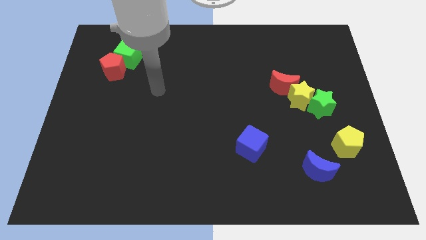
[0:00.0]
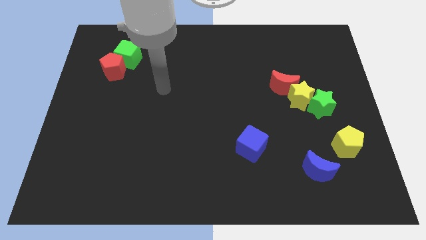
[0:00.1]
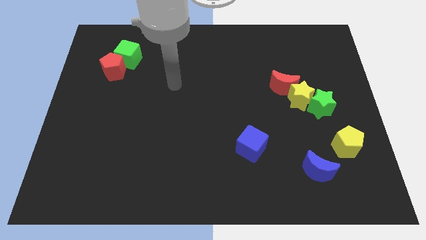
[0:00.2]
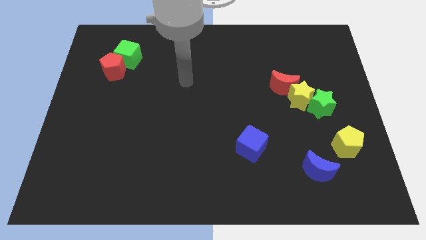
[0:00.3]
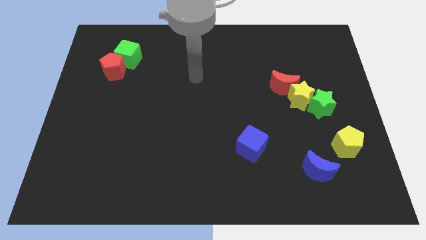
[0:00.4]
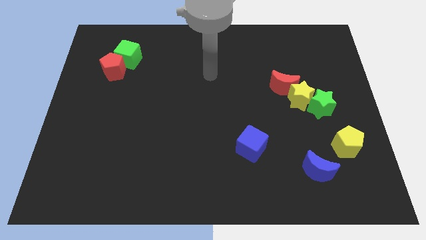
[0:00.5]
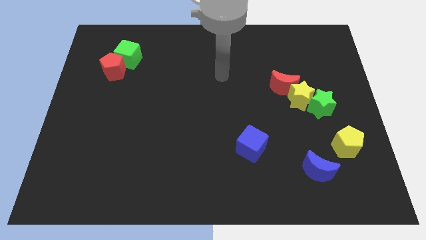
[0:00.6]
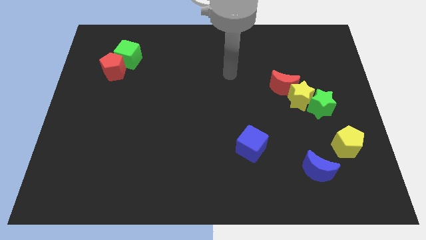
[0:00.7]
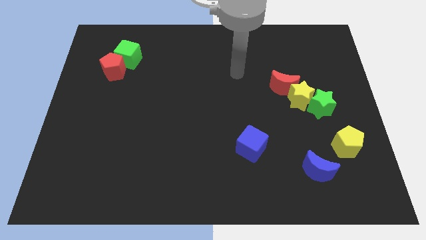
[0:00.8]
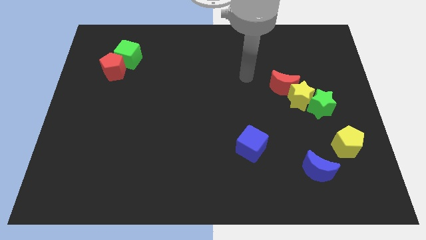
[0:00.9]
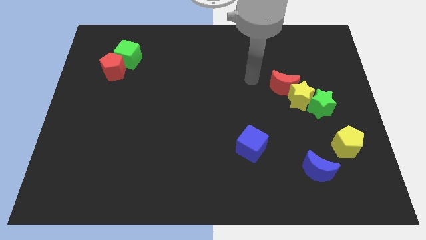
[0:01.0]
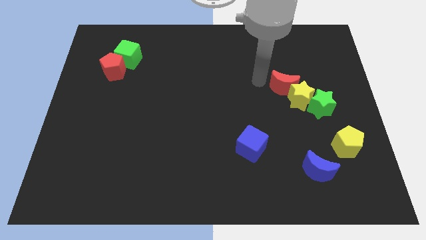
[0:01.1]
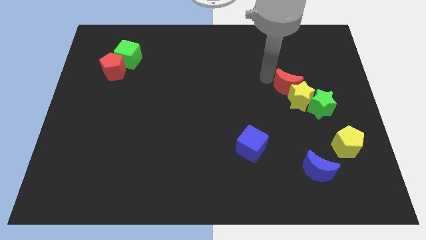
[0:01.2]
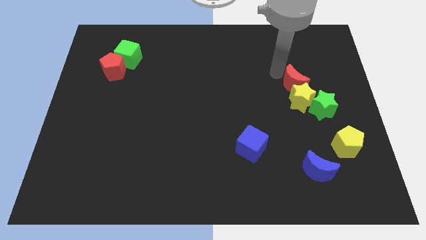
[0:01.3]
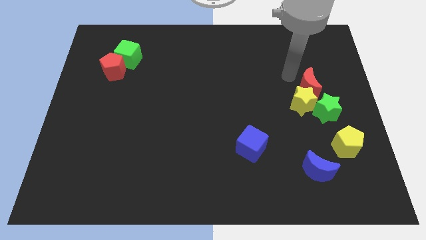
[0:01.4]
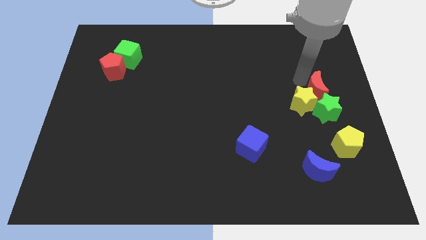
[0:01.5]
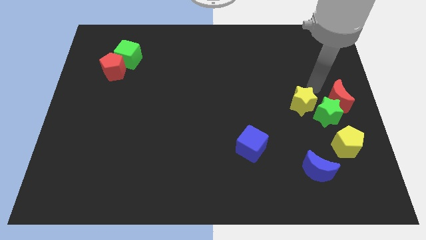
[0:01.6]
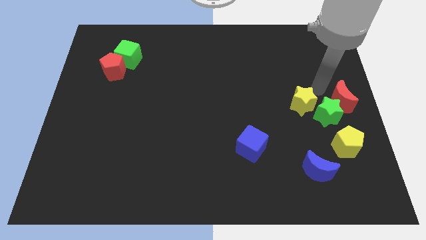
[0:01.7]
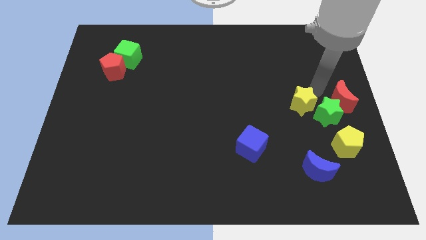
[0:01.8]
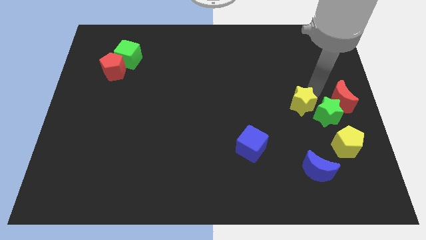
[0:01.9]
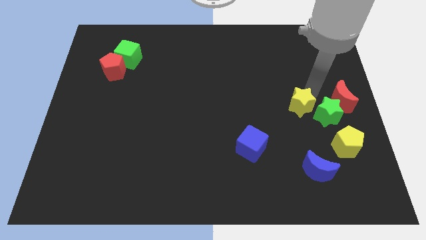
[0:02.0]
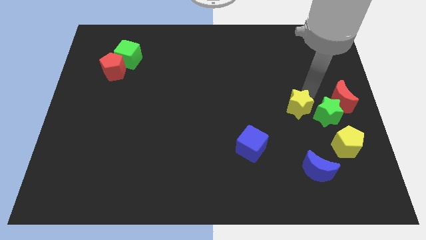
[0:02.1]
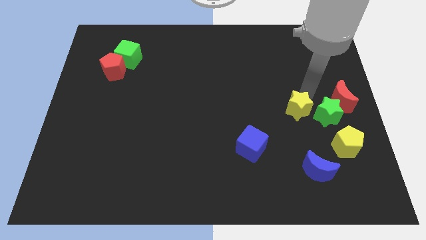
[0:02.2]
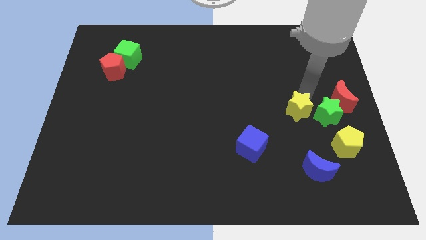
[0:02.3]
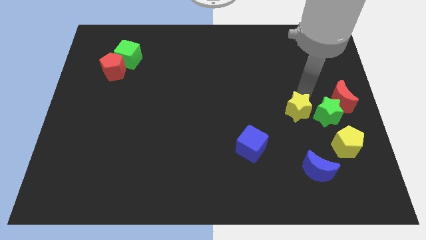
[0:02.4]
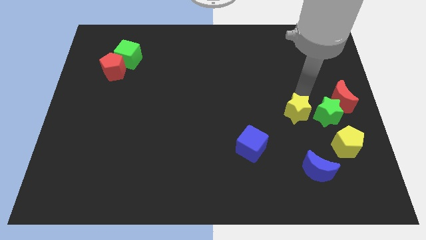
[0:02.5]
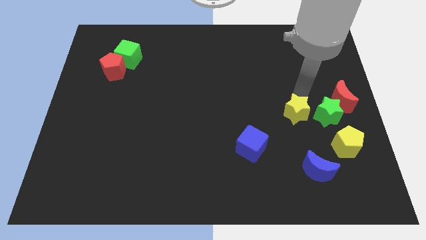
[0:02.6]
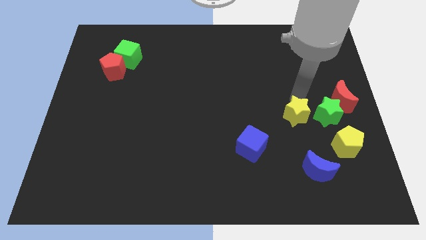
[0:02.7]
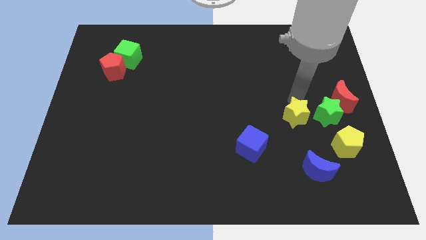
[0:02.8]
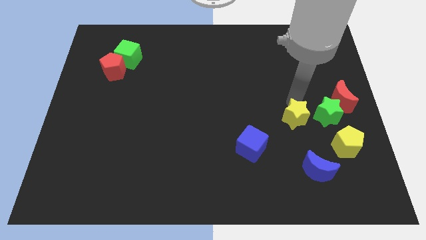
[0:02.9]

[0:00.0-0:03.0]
pull the yellow star apart from the red moon and green star

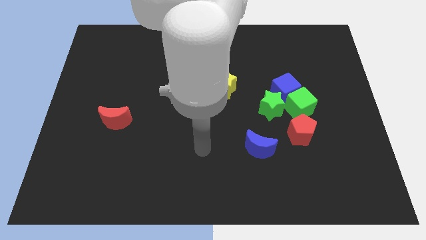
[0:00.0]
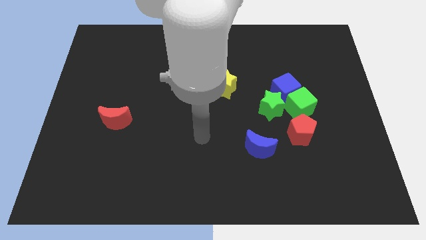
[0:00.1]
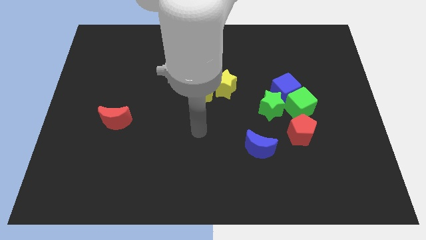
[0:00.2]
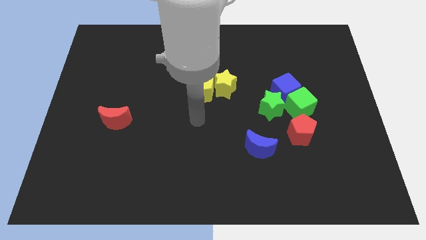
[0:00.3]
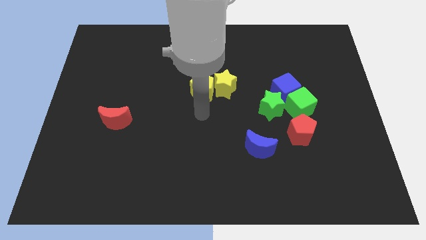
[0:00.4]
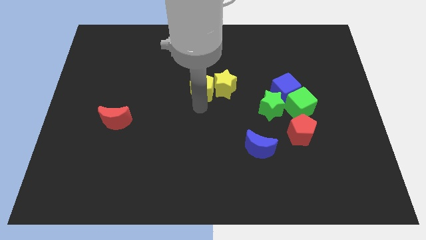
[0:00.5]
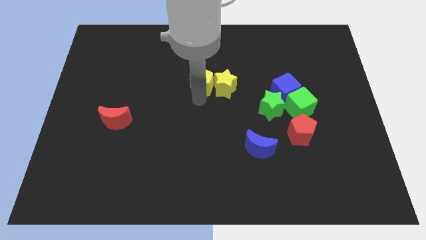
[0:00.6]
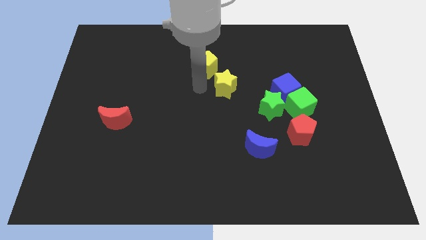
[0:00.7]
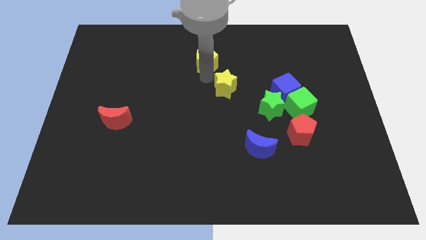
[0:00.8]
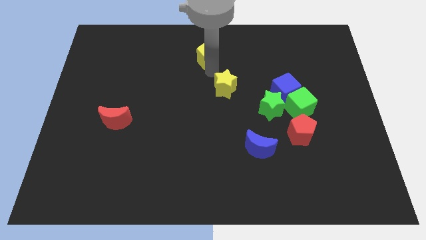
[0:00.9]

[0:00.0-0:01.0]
pull the yellow star apart from the yellow pentagon

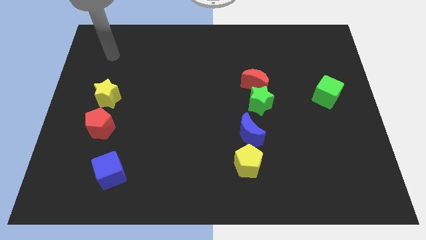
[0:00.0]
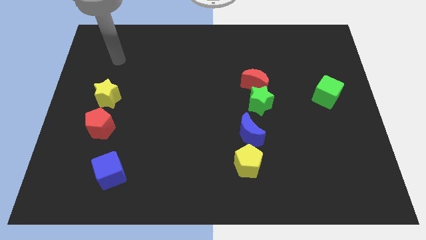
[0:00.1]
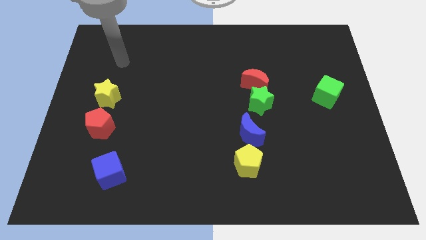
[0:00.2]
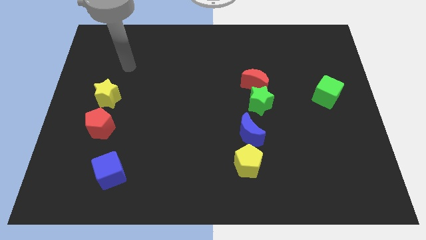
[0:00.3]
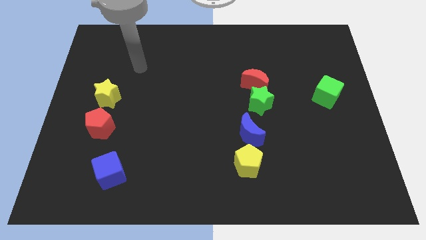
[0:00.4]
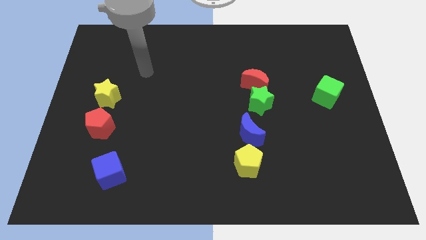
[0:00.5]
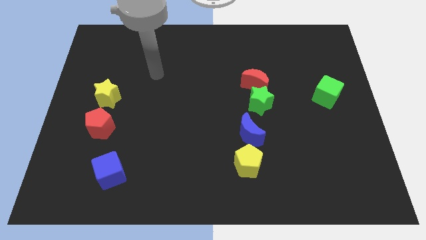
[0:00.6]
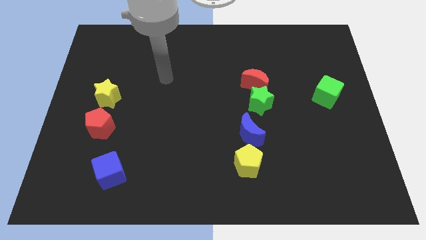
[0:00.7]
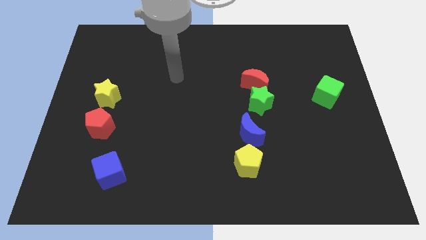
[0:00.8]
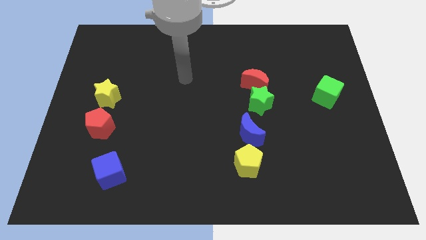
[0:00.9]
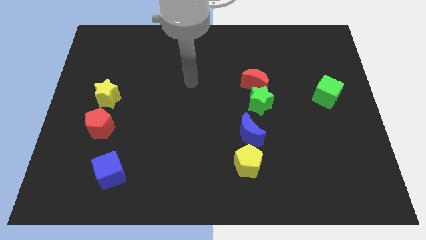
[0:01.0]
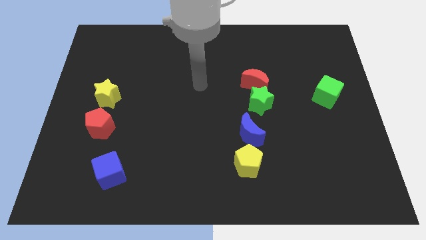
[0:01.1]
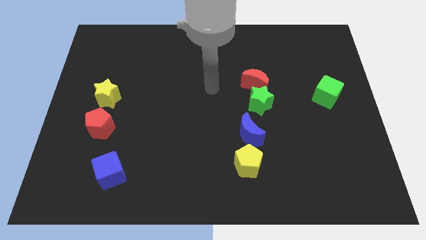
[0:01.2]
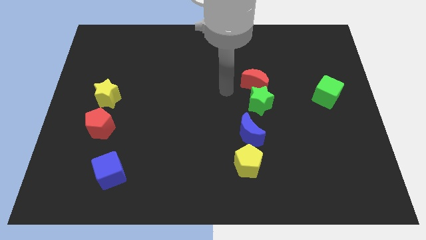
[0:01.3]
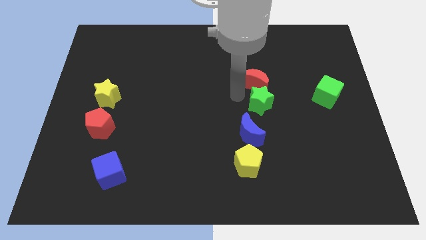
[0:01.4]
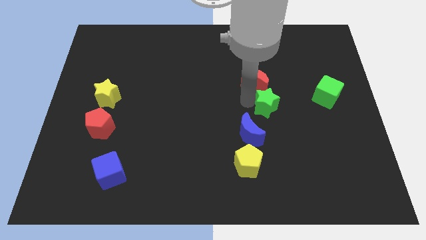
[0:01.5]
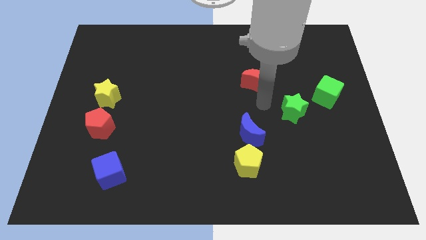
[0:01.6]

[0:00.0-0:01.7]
pull the red moon apart from the green star

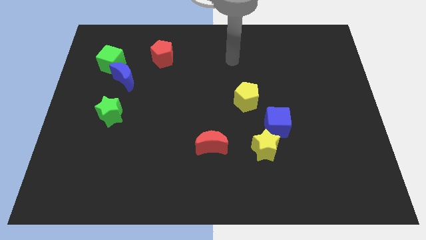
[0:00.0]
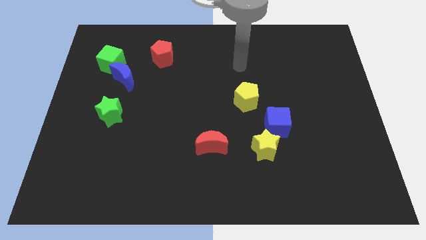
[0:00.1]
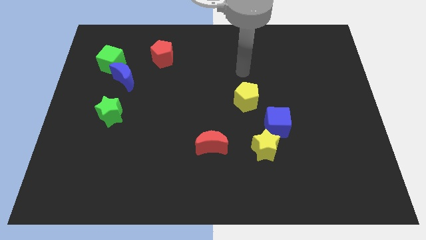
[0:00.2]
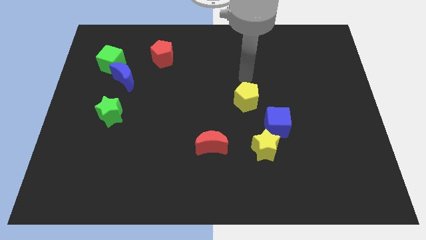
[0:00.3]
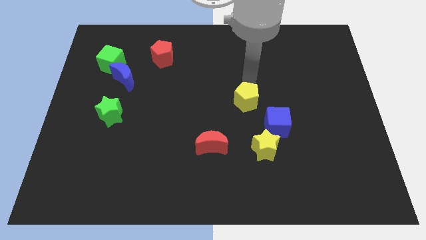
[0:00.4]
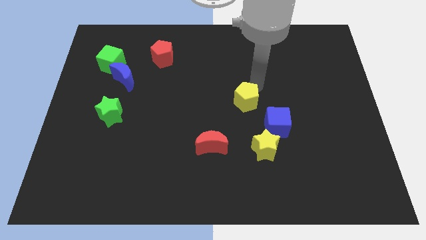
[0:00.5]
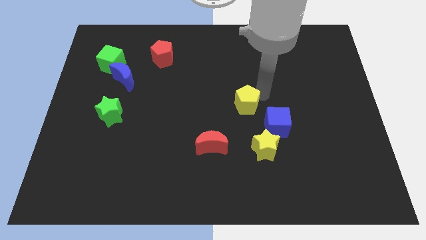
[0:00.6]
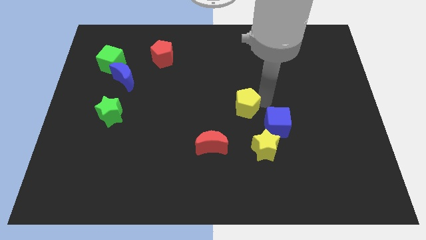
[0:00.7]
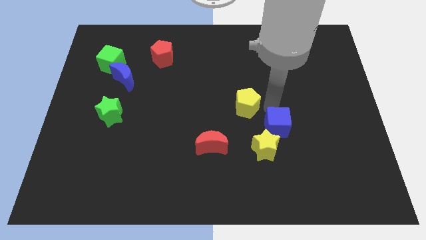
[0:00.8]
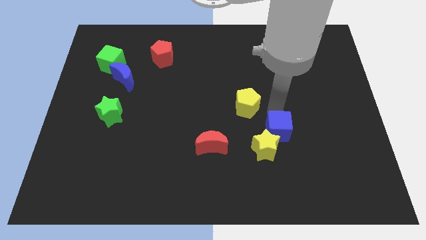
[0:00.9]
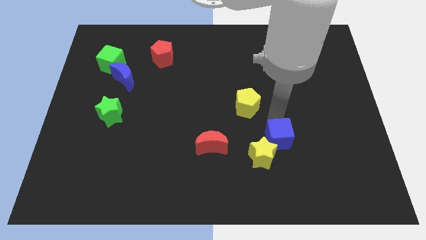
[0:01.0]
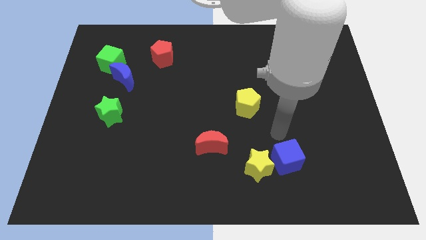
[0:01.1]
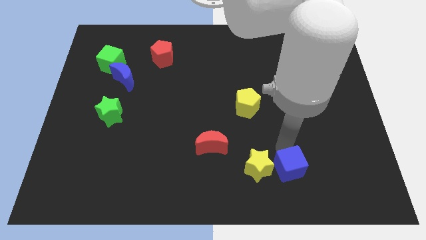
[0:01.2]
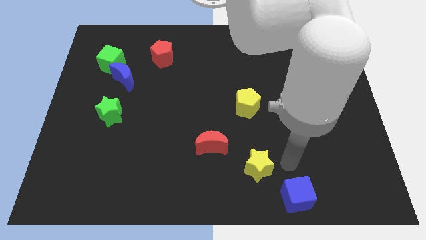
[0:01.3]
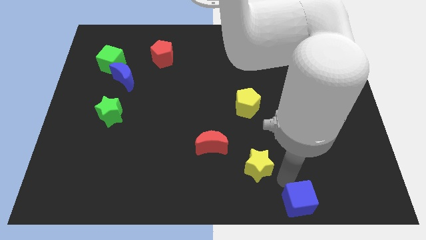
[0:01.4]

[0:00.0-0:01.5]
pull the yellow star apart from the blue cube

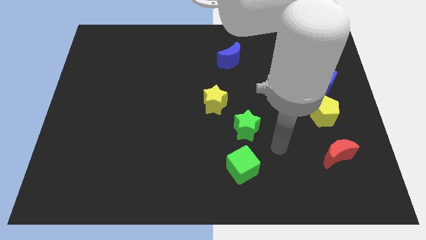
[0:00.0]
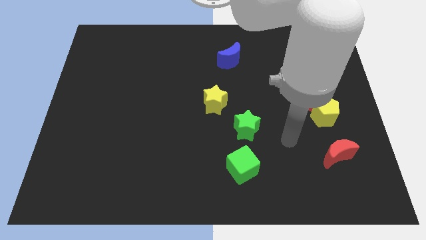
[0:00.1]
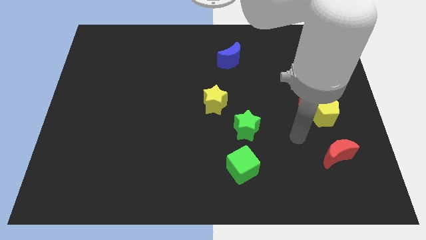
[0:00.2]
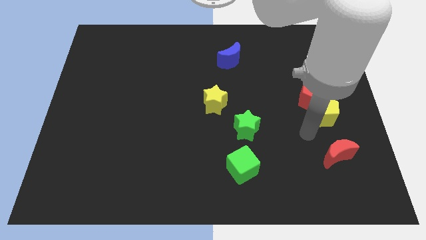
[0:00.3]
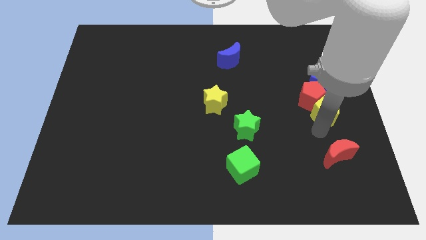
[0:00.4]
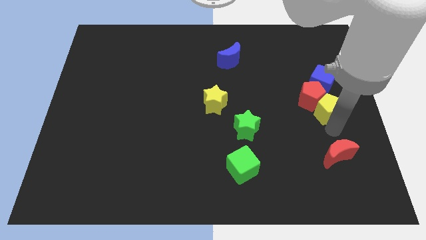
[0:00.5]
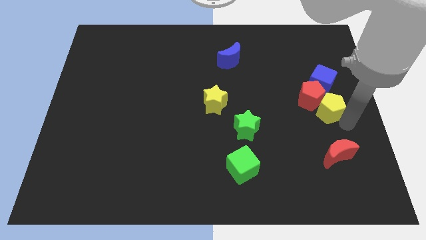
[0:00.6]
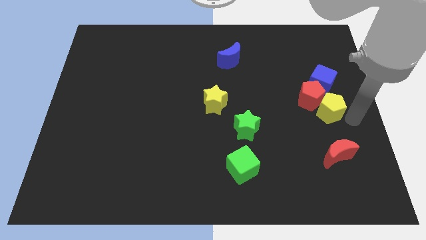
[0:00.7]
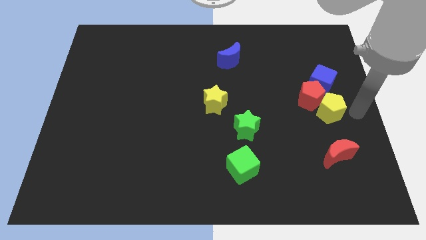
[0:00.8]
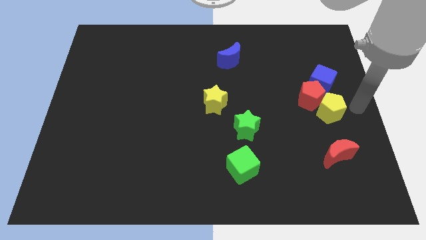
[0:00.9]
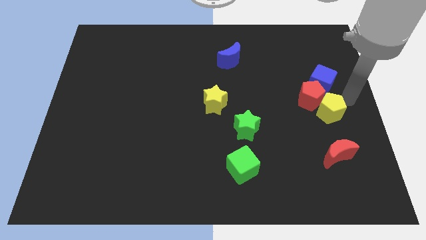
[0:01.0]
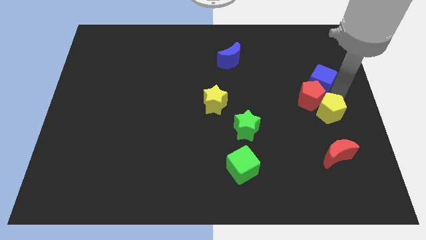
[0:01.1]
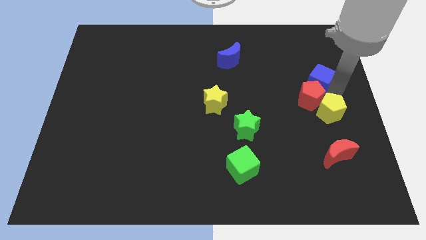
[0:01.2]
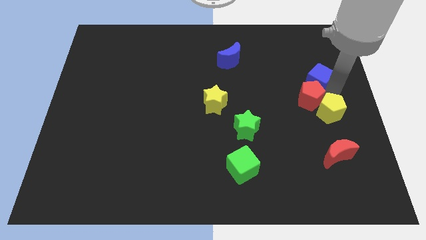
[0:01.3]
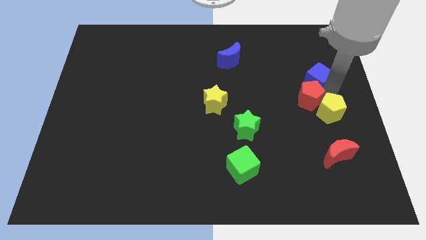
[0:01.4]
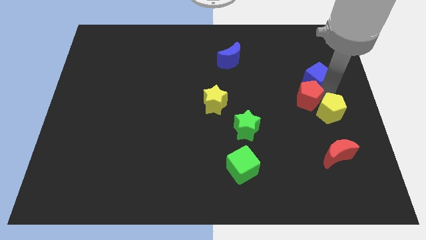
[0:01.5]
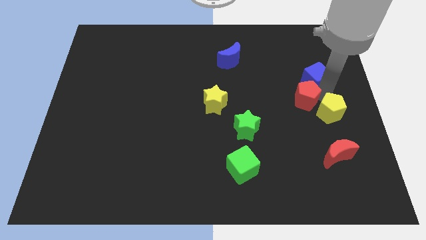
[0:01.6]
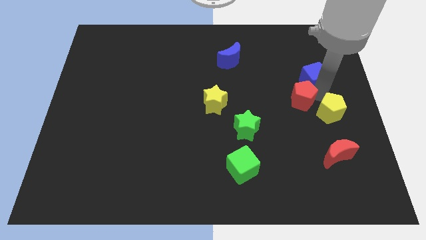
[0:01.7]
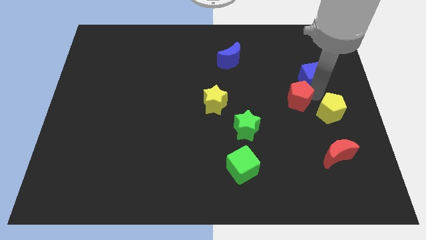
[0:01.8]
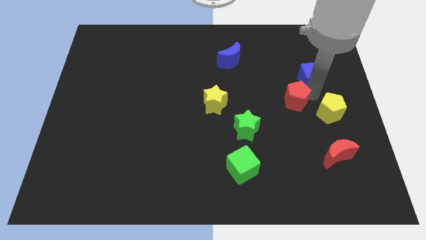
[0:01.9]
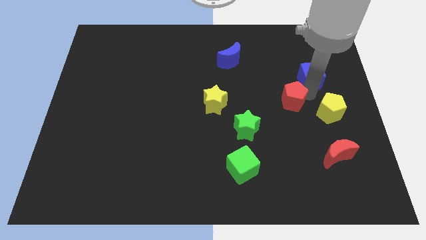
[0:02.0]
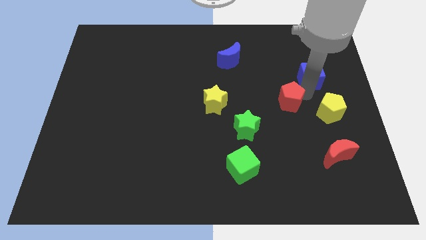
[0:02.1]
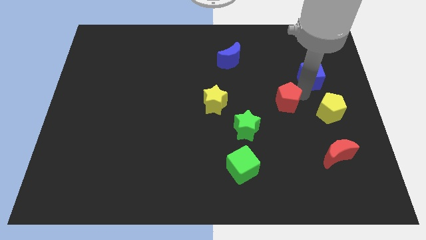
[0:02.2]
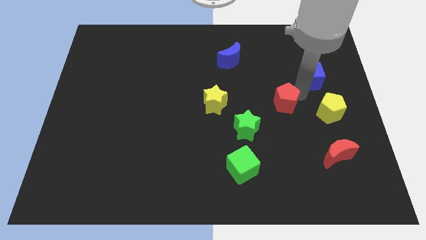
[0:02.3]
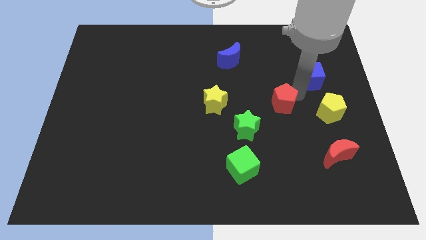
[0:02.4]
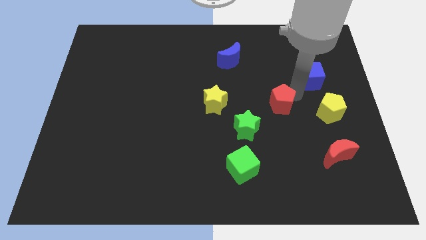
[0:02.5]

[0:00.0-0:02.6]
separate the red pentagon from the yellow pentagon and blue cube
